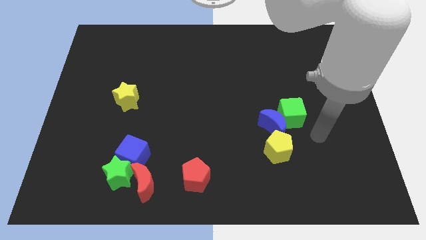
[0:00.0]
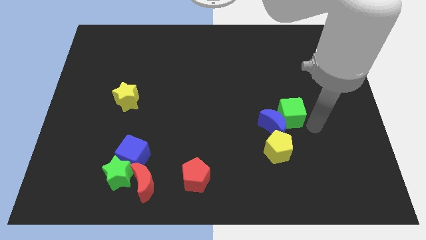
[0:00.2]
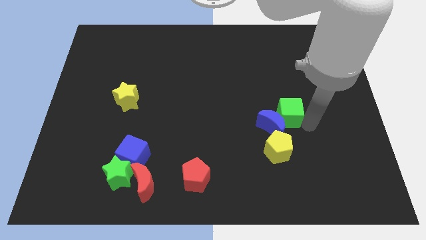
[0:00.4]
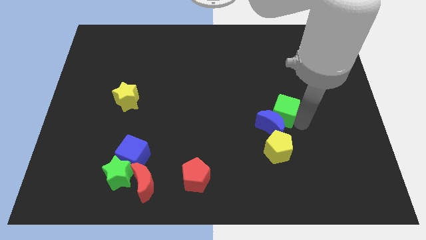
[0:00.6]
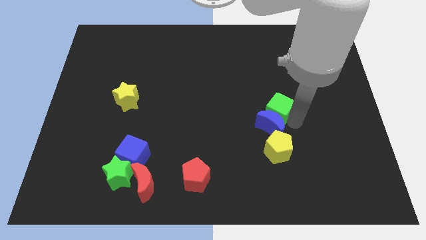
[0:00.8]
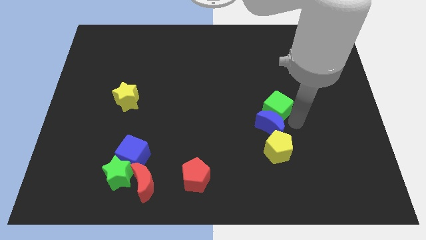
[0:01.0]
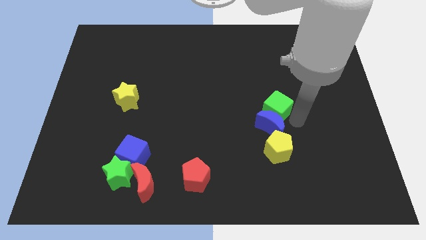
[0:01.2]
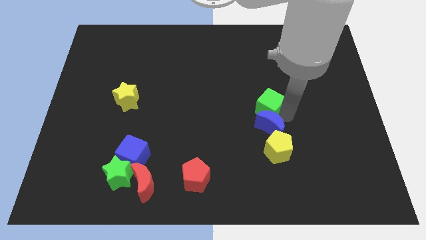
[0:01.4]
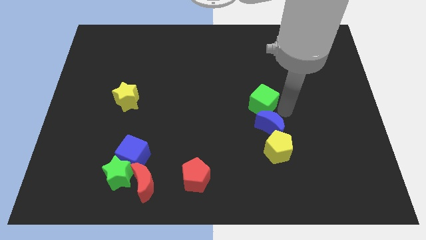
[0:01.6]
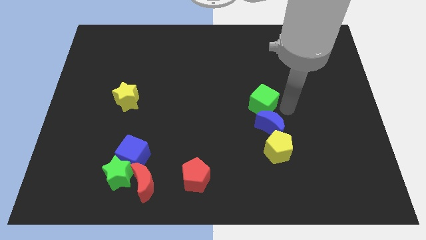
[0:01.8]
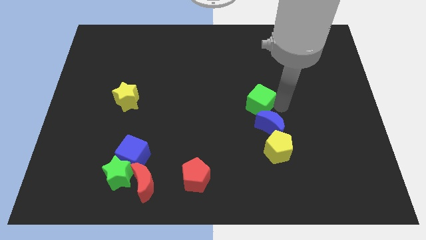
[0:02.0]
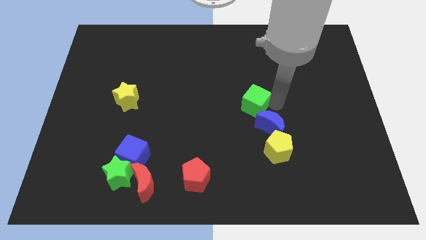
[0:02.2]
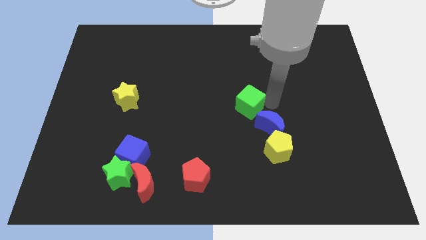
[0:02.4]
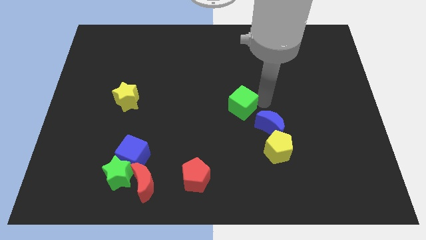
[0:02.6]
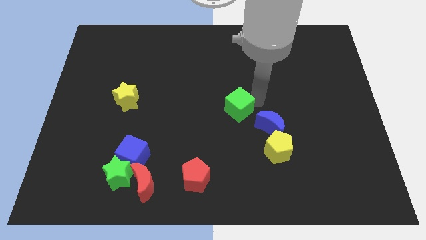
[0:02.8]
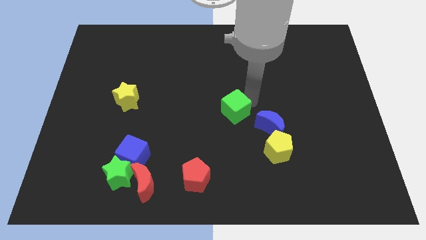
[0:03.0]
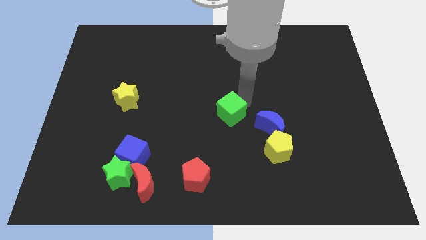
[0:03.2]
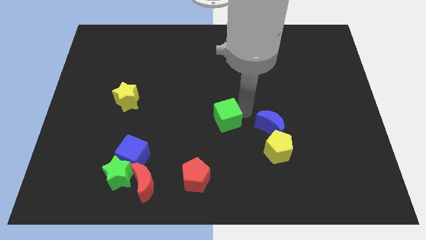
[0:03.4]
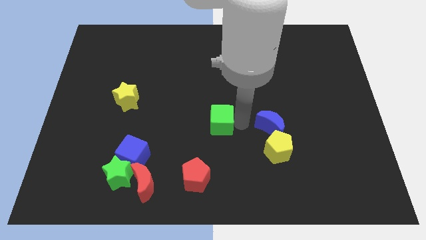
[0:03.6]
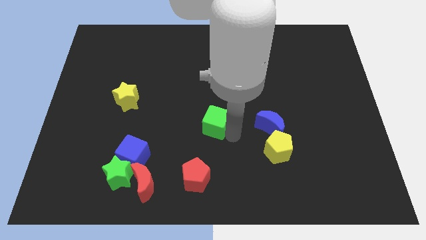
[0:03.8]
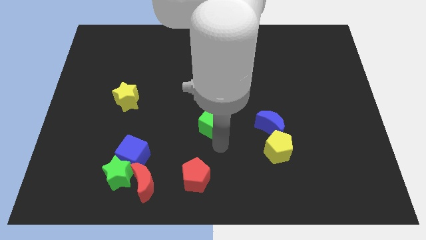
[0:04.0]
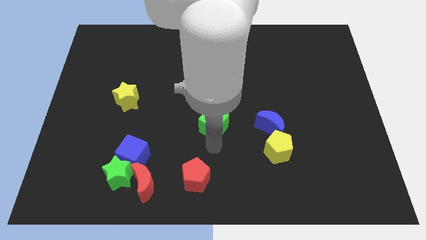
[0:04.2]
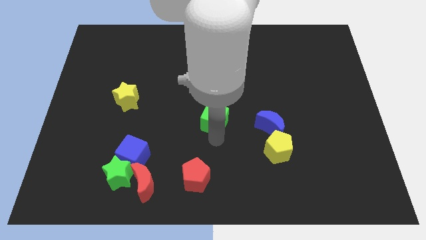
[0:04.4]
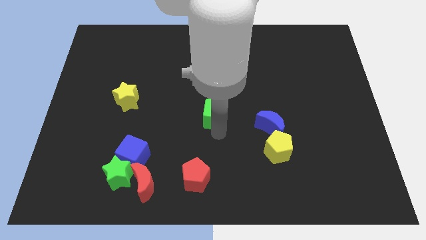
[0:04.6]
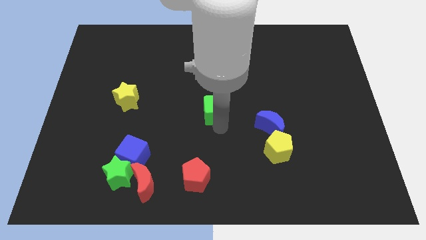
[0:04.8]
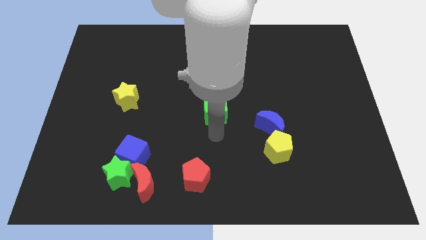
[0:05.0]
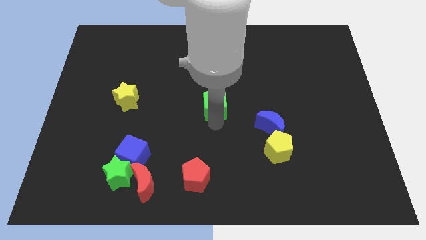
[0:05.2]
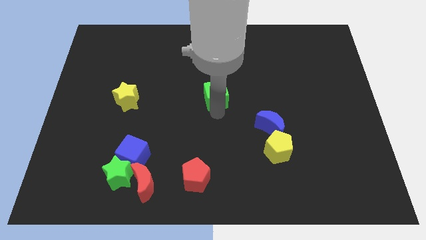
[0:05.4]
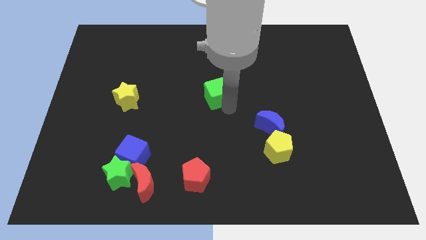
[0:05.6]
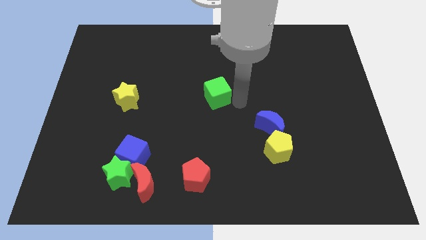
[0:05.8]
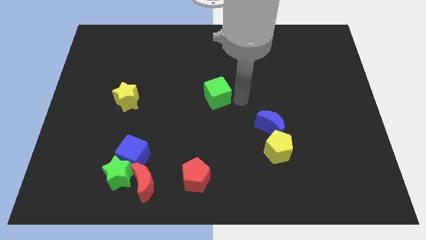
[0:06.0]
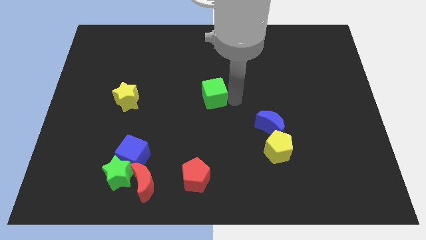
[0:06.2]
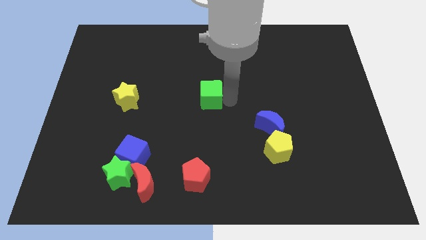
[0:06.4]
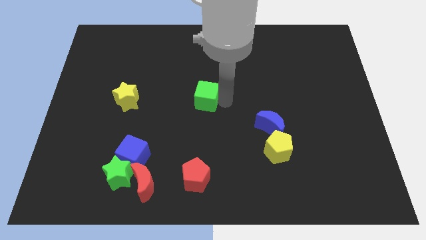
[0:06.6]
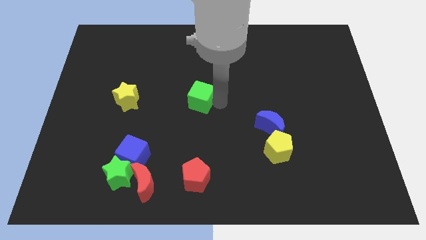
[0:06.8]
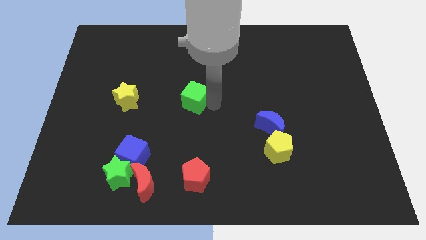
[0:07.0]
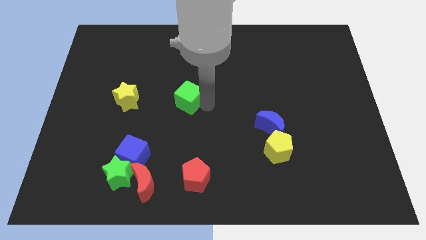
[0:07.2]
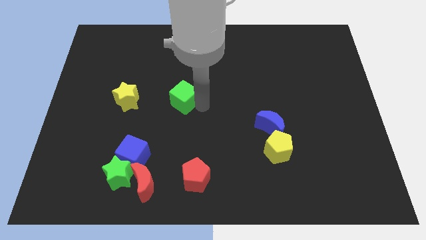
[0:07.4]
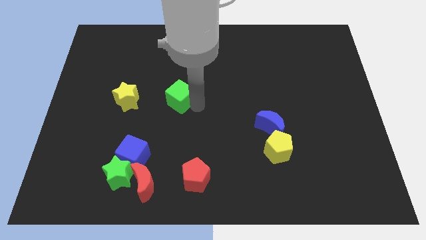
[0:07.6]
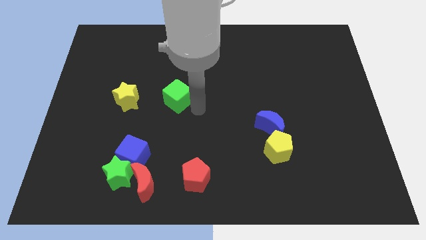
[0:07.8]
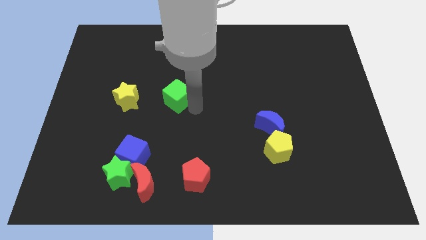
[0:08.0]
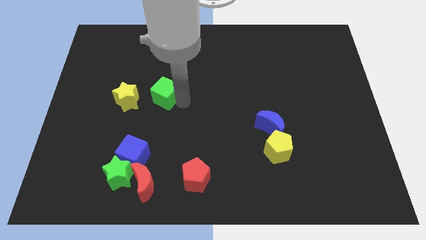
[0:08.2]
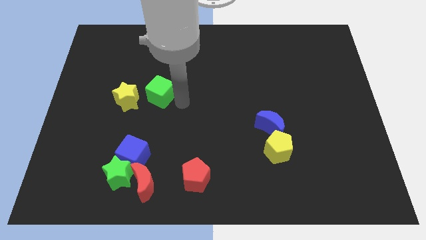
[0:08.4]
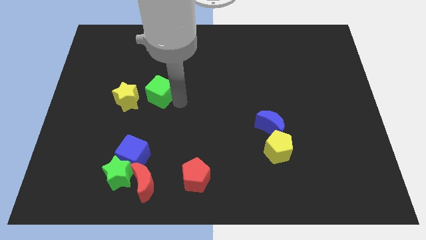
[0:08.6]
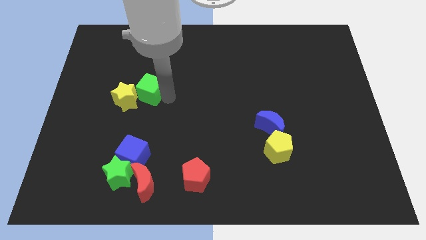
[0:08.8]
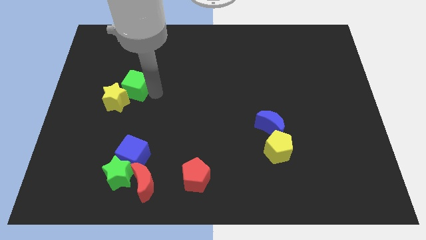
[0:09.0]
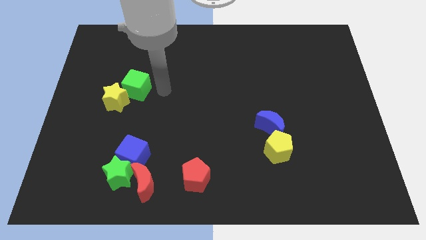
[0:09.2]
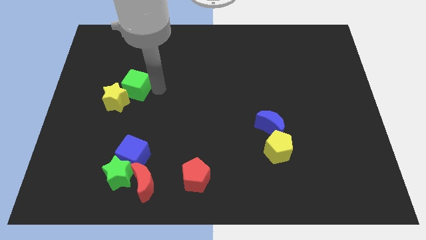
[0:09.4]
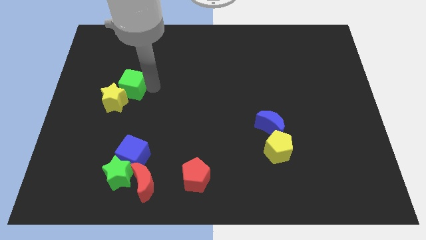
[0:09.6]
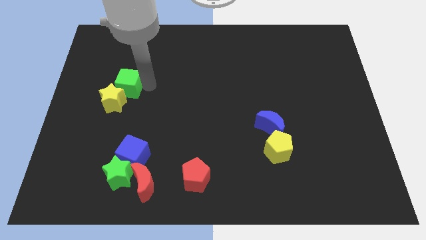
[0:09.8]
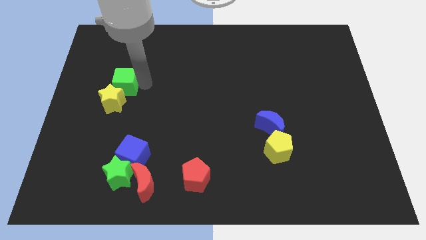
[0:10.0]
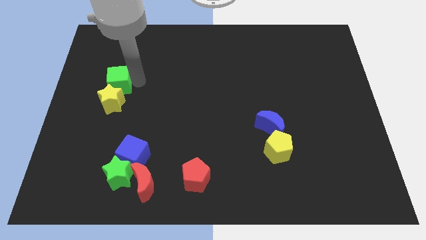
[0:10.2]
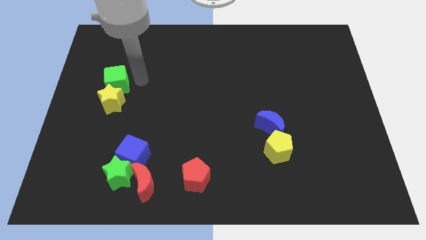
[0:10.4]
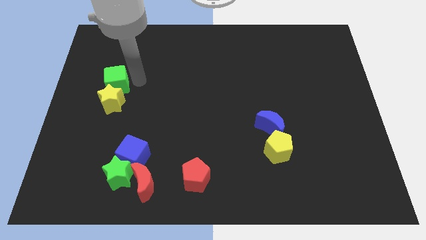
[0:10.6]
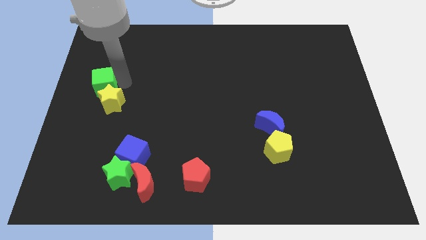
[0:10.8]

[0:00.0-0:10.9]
put the green cube to the center left

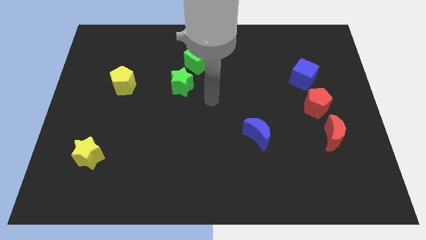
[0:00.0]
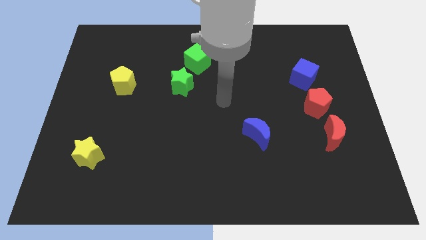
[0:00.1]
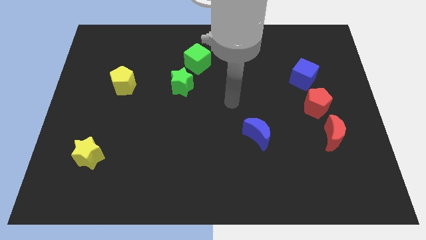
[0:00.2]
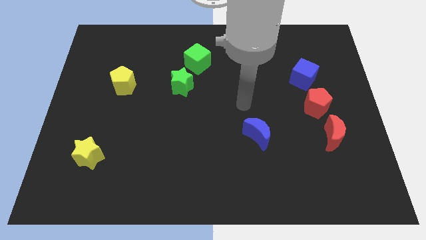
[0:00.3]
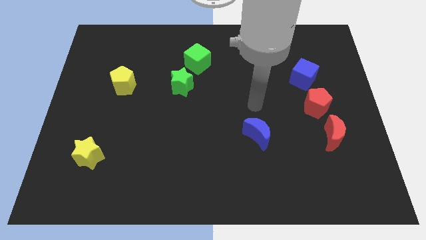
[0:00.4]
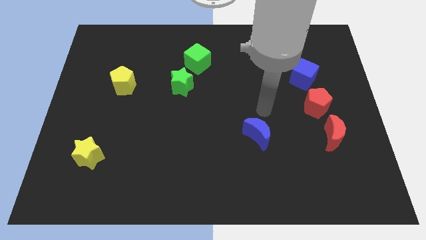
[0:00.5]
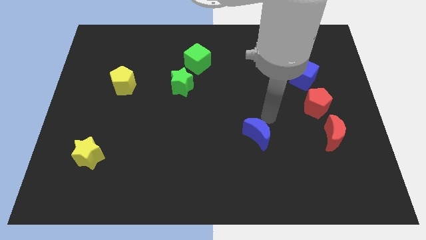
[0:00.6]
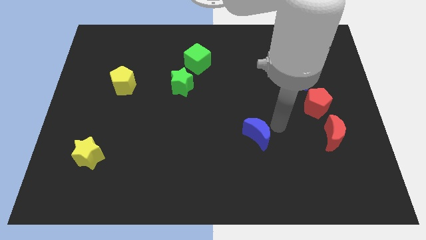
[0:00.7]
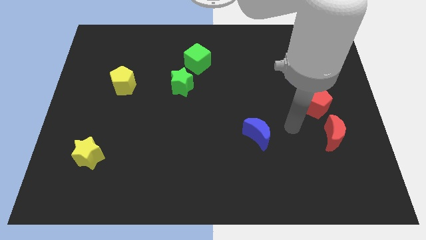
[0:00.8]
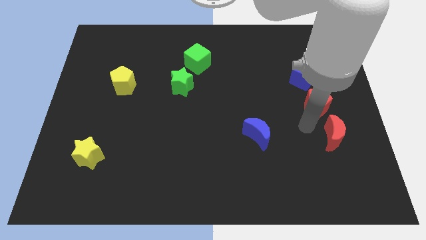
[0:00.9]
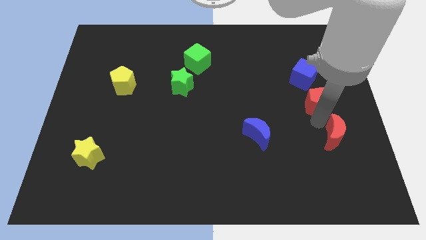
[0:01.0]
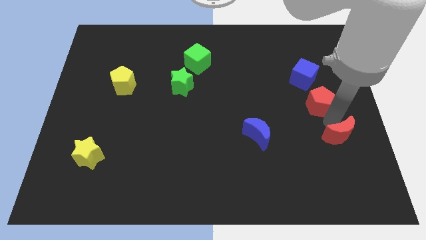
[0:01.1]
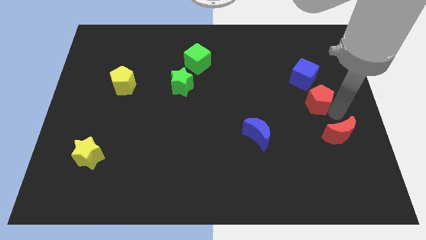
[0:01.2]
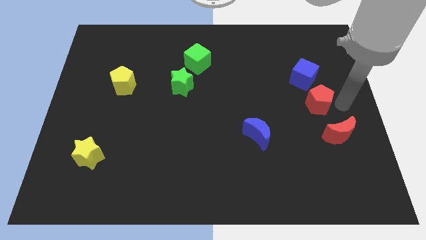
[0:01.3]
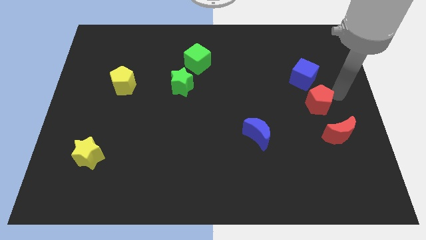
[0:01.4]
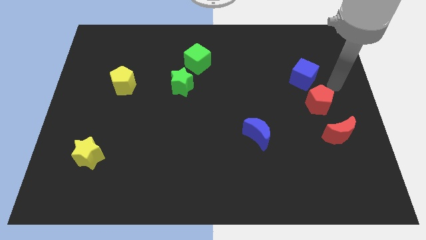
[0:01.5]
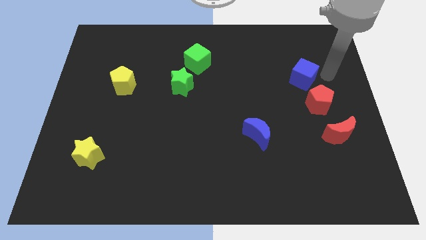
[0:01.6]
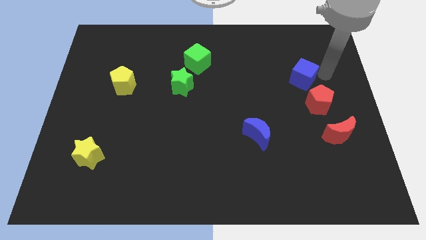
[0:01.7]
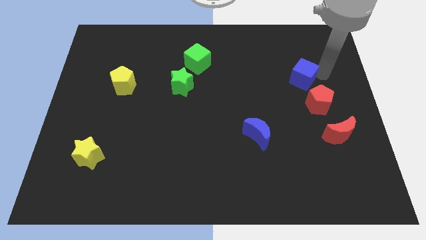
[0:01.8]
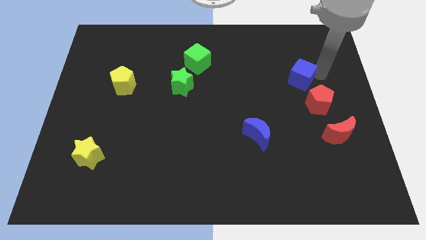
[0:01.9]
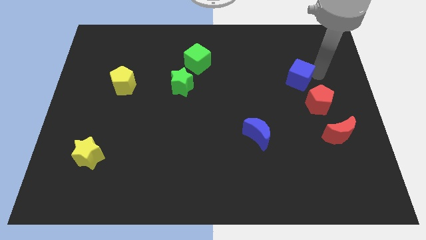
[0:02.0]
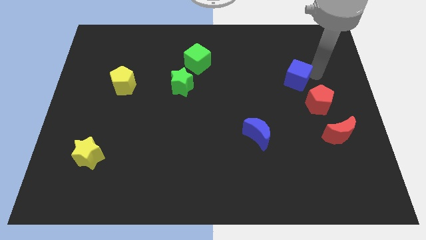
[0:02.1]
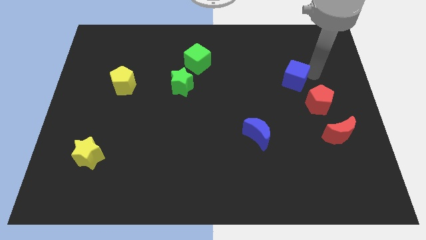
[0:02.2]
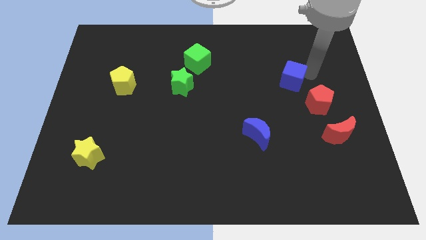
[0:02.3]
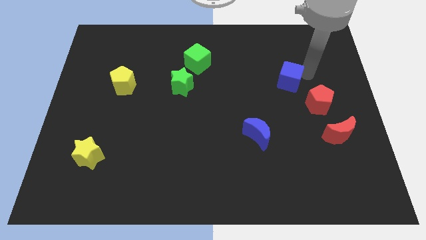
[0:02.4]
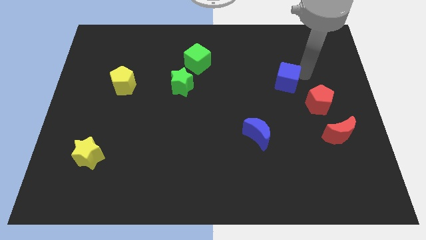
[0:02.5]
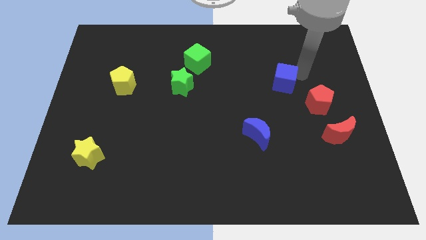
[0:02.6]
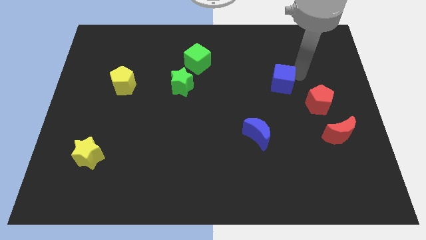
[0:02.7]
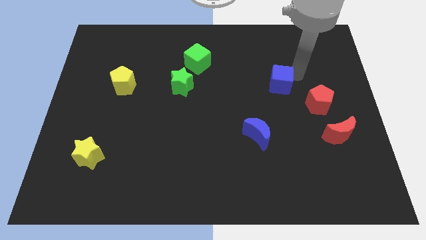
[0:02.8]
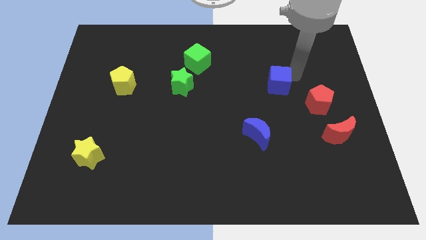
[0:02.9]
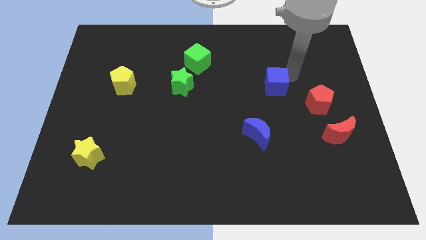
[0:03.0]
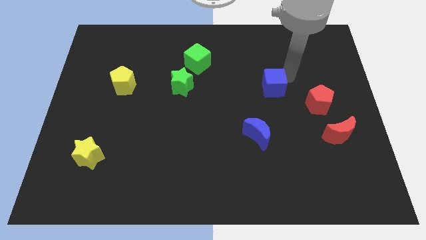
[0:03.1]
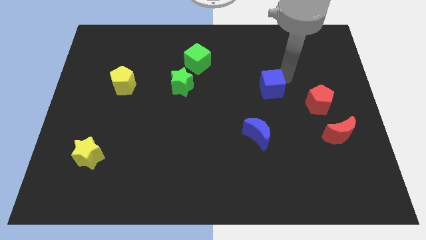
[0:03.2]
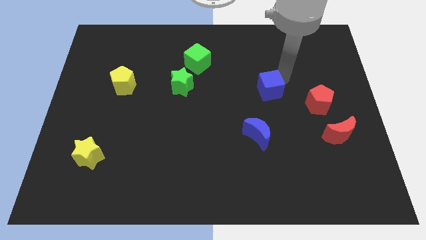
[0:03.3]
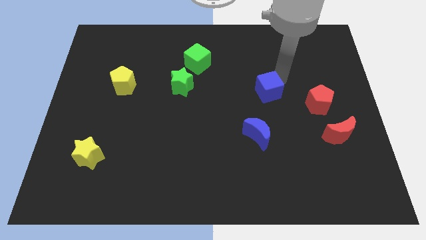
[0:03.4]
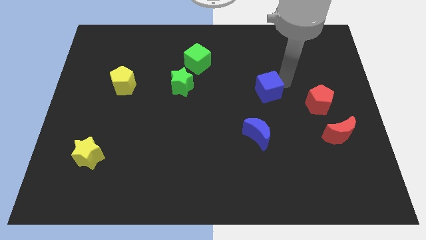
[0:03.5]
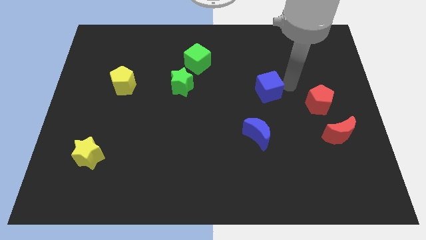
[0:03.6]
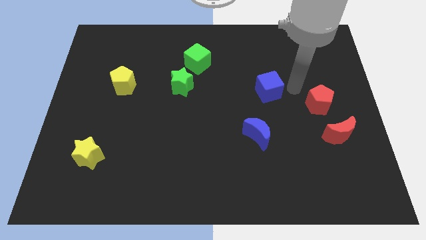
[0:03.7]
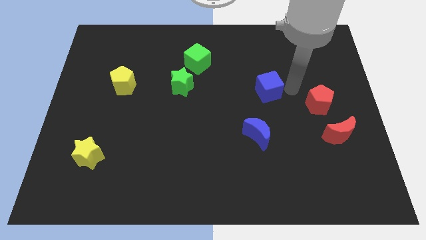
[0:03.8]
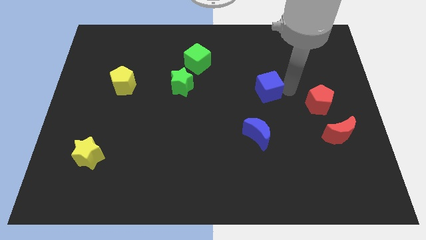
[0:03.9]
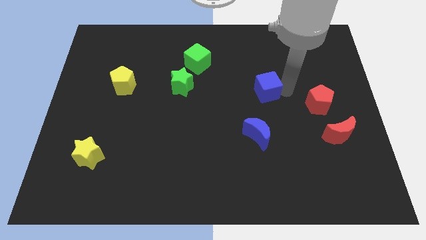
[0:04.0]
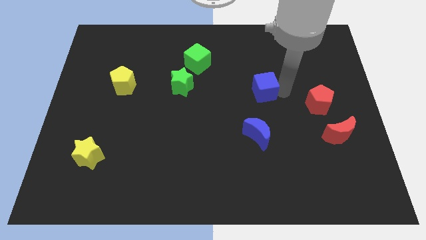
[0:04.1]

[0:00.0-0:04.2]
push the blue cube to the middle
